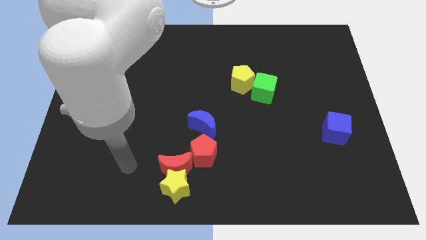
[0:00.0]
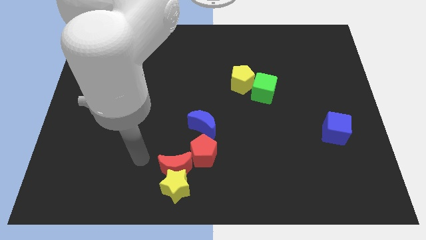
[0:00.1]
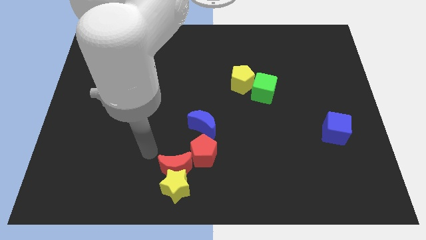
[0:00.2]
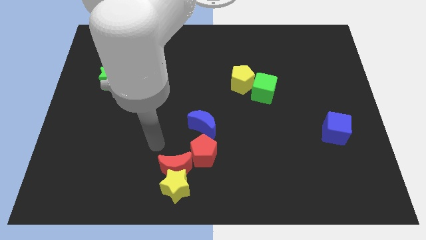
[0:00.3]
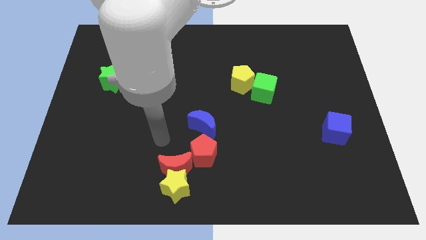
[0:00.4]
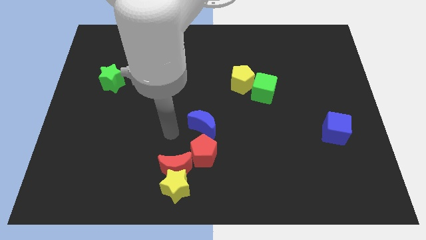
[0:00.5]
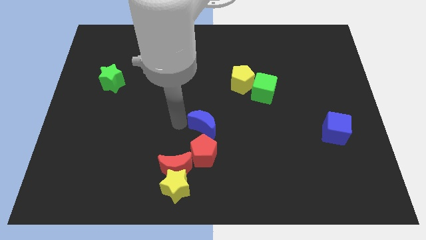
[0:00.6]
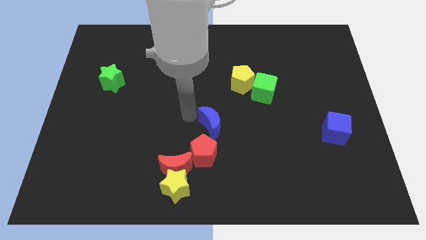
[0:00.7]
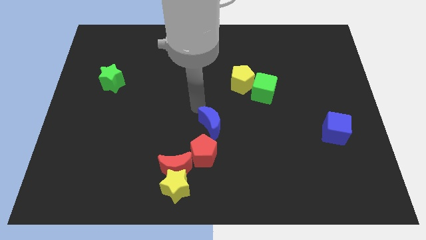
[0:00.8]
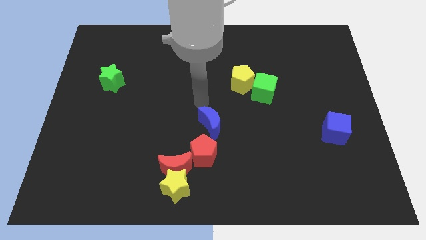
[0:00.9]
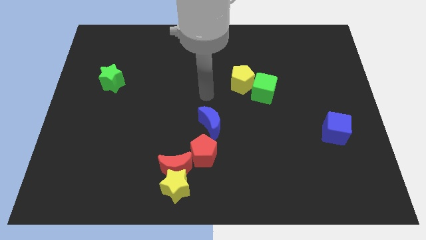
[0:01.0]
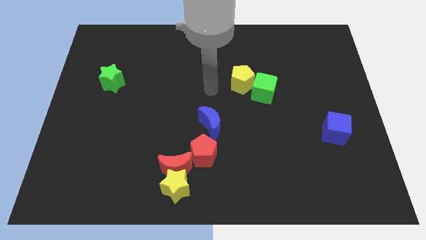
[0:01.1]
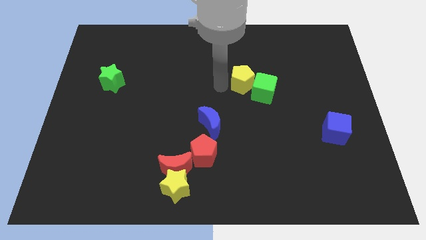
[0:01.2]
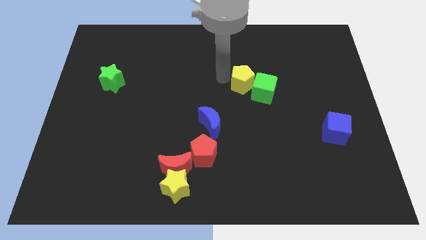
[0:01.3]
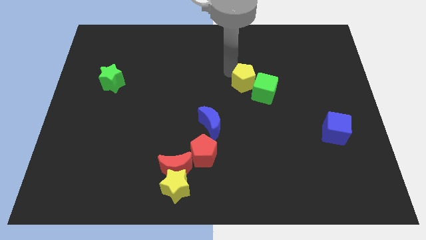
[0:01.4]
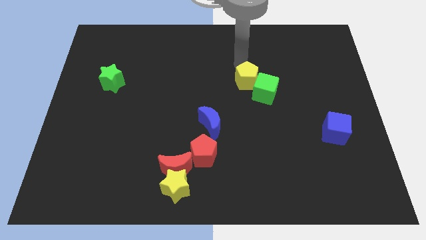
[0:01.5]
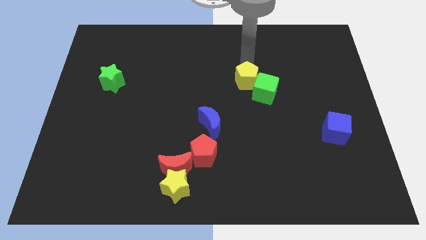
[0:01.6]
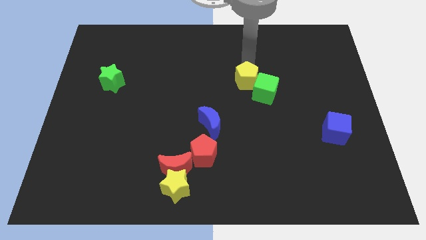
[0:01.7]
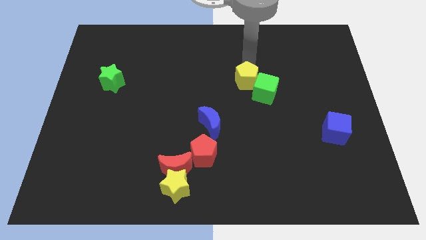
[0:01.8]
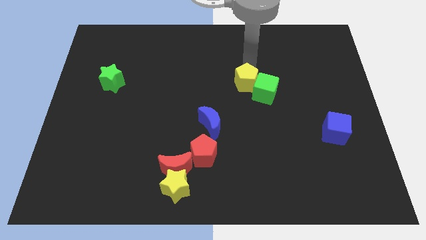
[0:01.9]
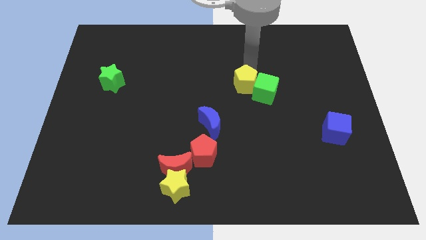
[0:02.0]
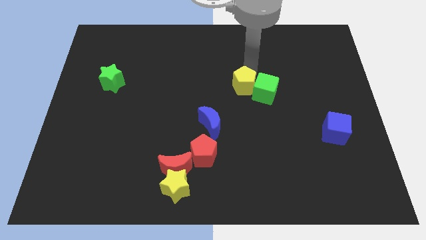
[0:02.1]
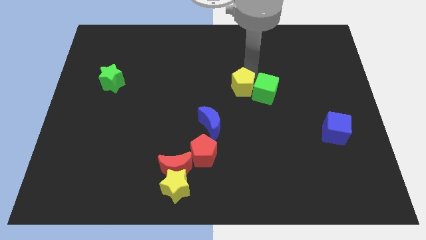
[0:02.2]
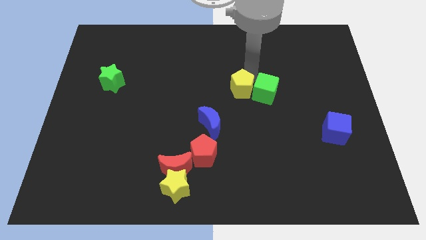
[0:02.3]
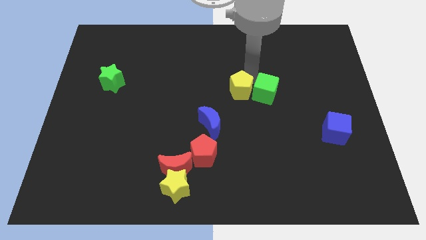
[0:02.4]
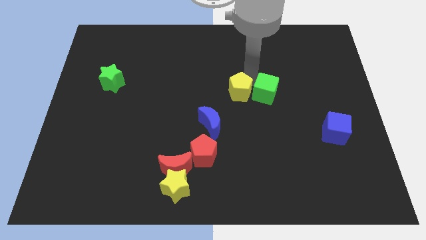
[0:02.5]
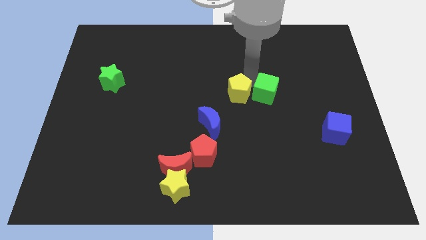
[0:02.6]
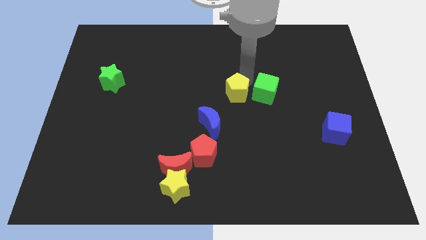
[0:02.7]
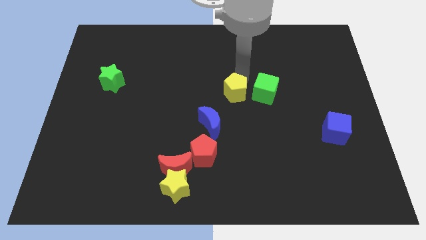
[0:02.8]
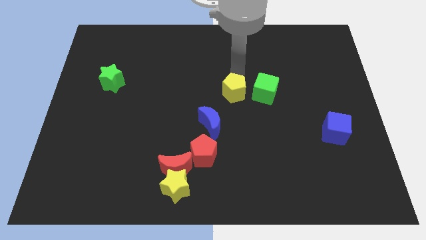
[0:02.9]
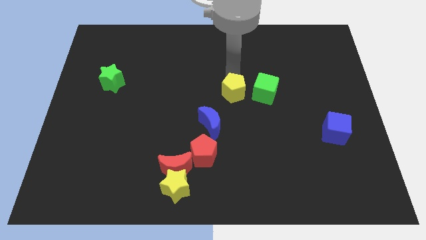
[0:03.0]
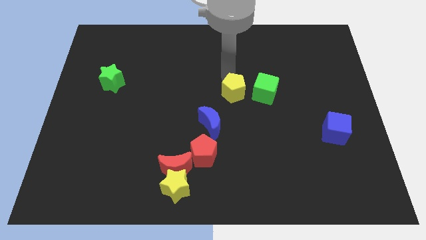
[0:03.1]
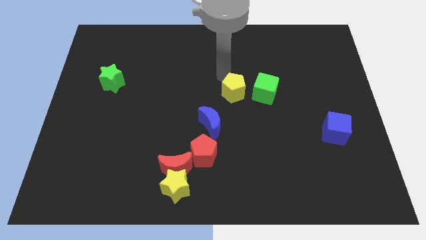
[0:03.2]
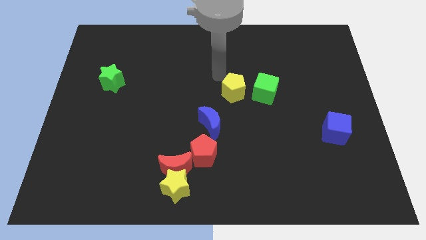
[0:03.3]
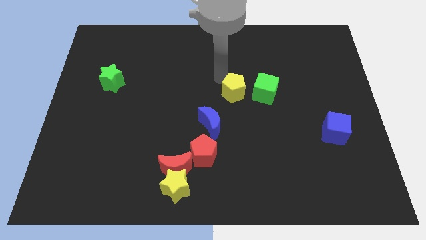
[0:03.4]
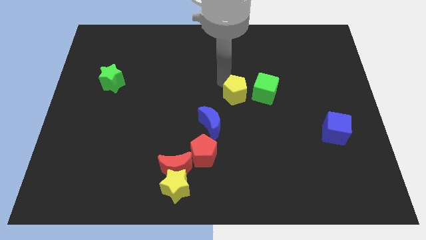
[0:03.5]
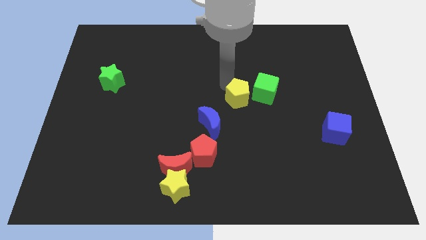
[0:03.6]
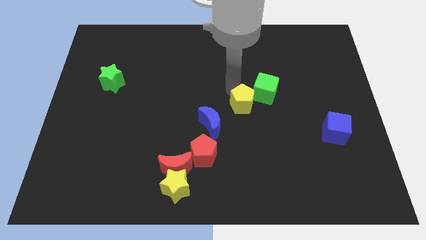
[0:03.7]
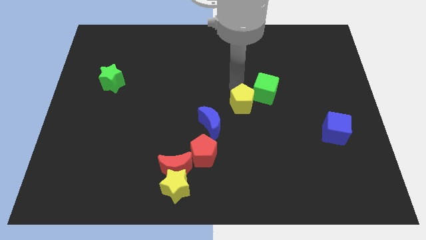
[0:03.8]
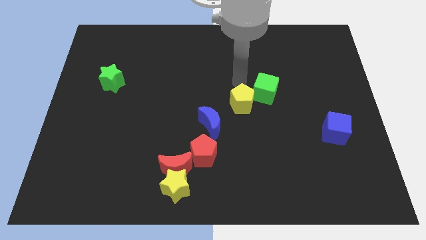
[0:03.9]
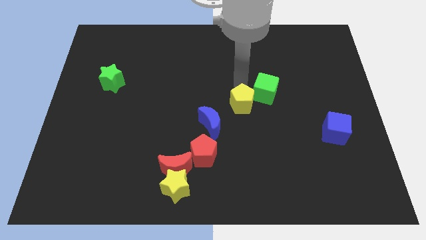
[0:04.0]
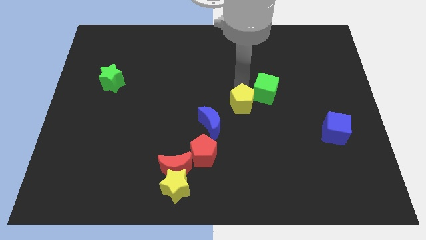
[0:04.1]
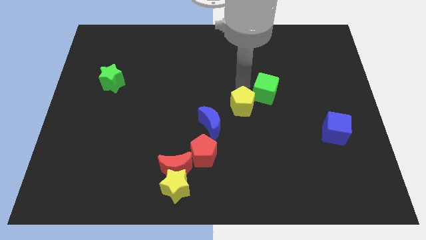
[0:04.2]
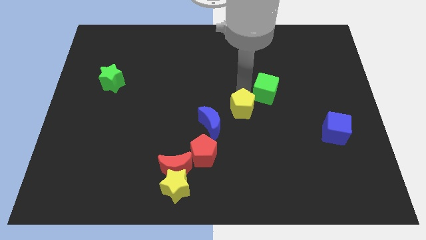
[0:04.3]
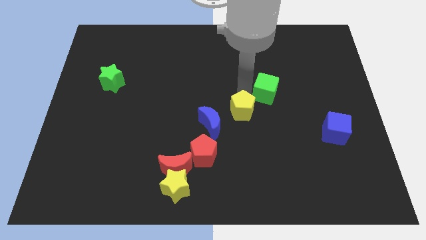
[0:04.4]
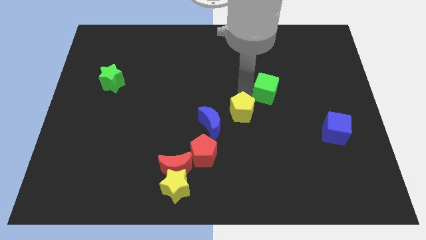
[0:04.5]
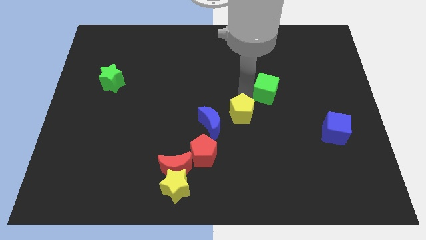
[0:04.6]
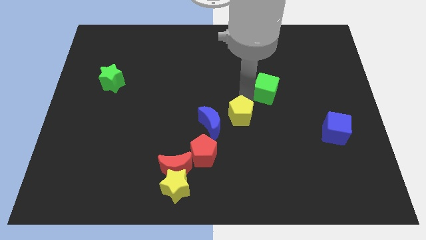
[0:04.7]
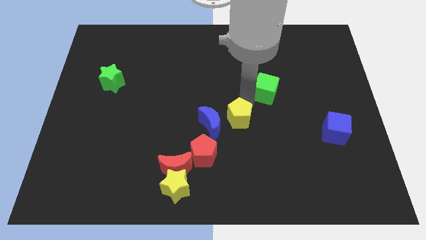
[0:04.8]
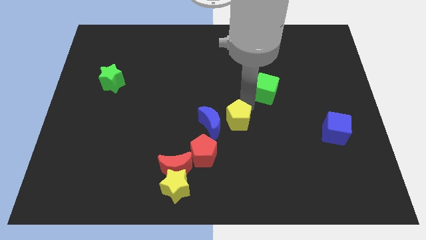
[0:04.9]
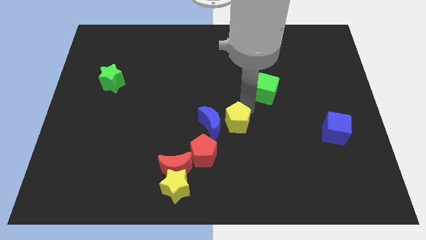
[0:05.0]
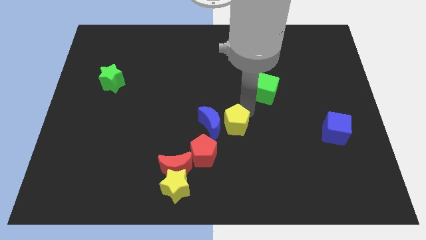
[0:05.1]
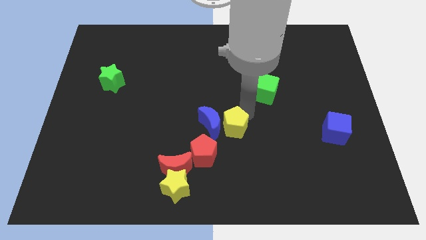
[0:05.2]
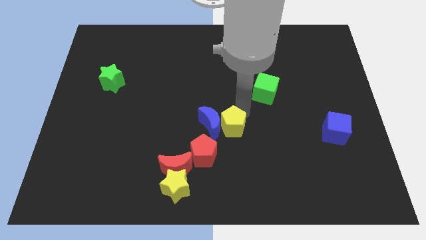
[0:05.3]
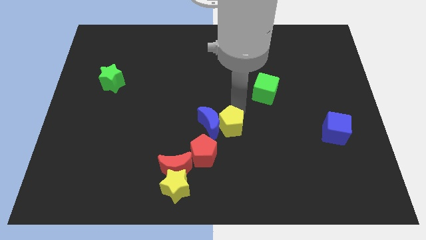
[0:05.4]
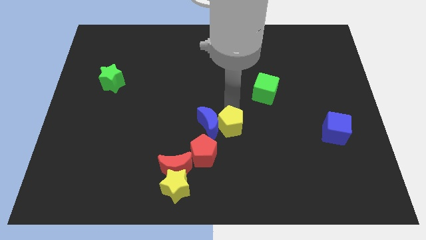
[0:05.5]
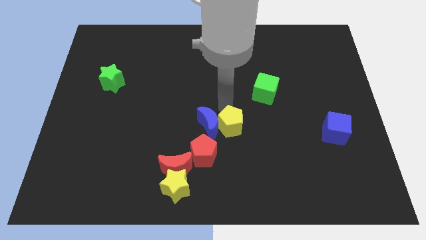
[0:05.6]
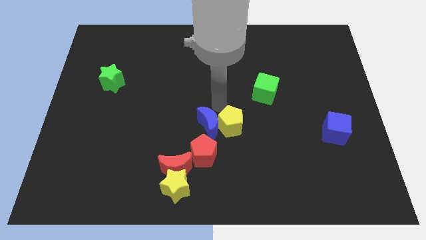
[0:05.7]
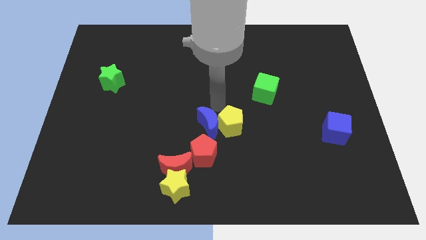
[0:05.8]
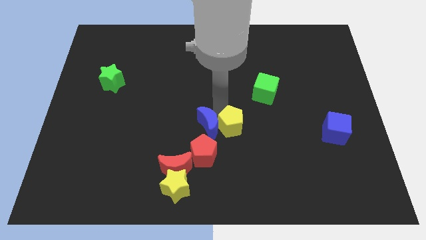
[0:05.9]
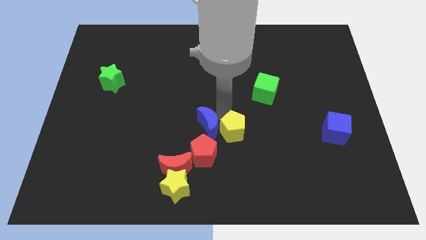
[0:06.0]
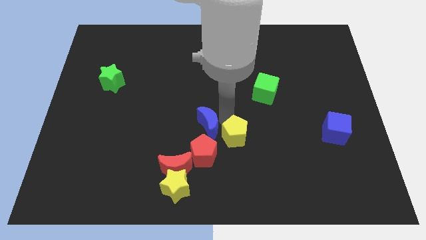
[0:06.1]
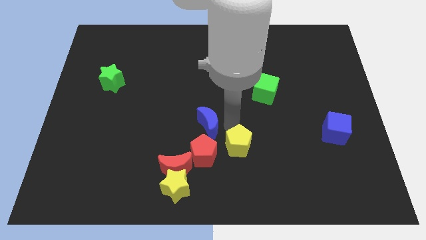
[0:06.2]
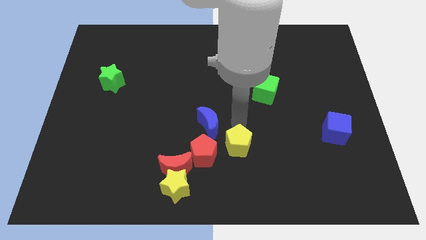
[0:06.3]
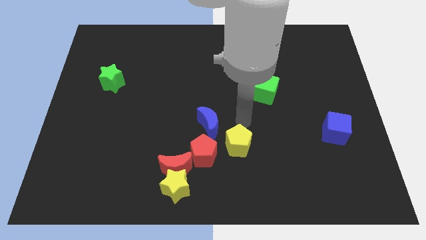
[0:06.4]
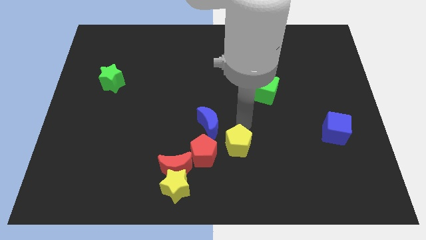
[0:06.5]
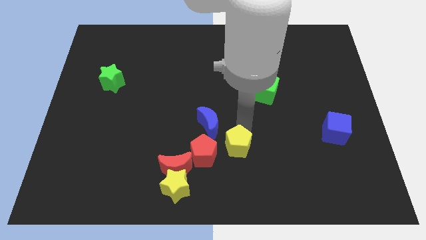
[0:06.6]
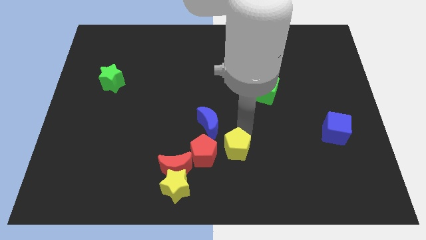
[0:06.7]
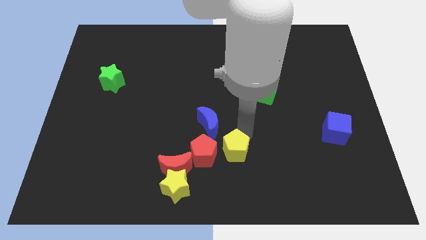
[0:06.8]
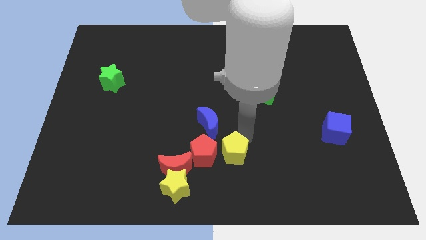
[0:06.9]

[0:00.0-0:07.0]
push the yellow pentagon diagonally down and to the right of the red pentagon

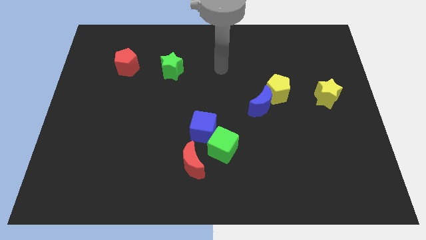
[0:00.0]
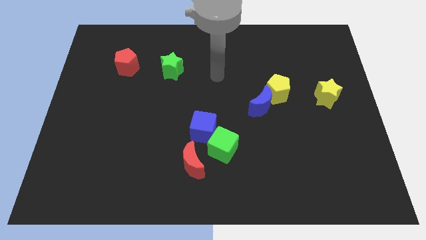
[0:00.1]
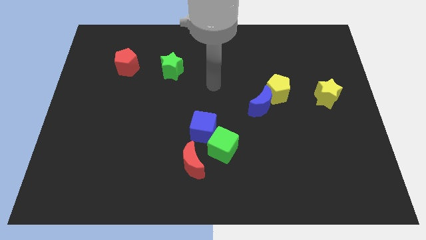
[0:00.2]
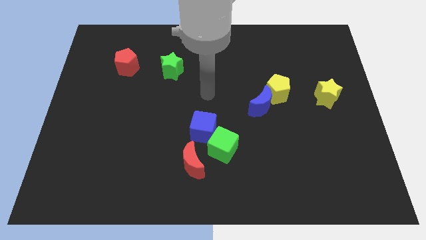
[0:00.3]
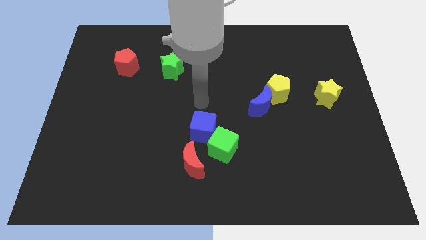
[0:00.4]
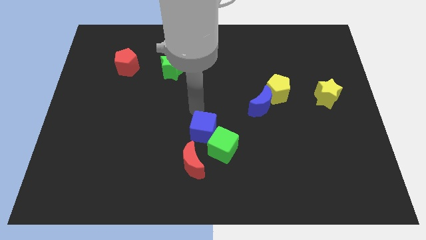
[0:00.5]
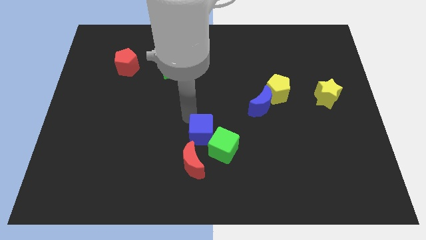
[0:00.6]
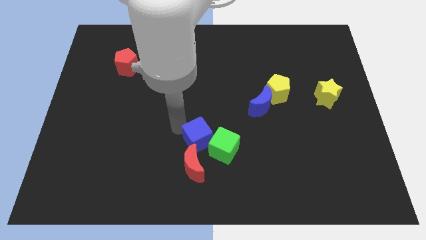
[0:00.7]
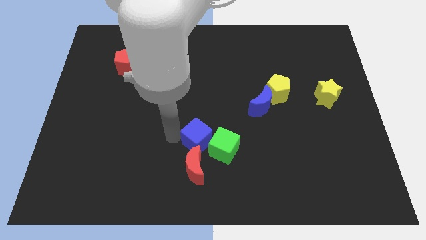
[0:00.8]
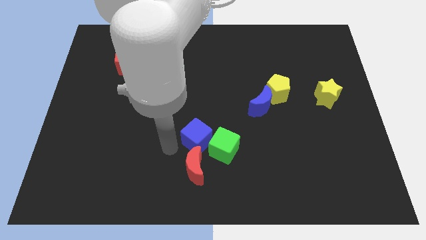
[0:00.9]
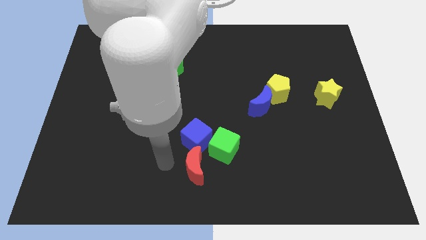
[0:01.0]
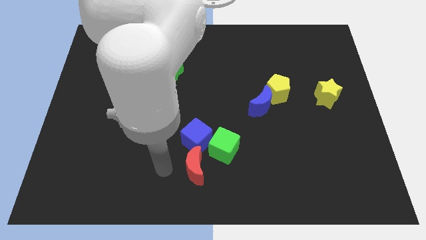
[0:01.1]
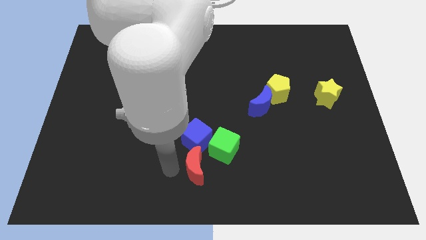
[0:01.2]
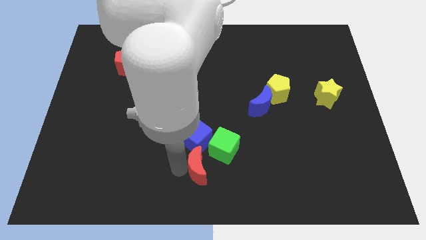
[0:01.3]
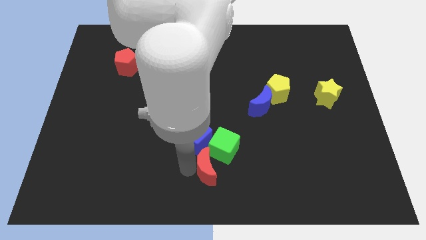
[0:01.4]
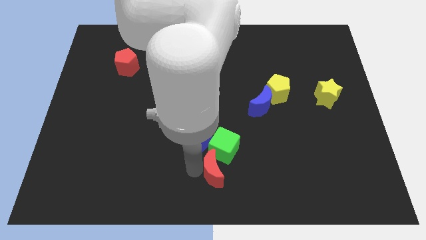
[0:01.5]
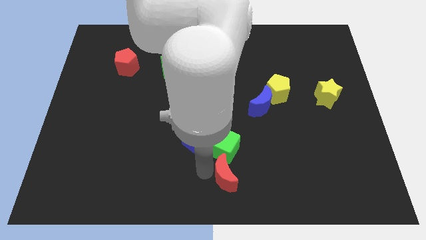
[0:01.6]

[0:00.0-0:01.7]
push the red moon to the bottom right side of the green cube
